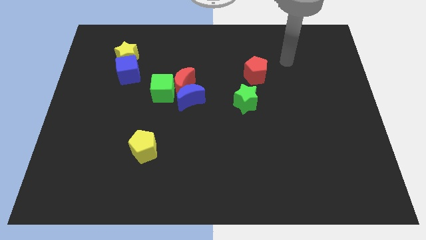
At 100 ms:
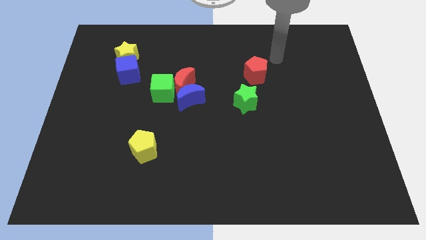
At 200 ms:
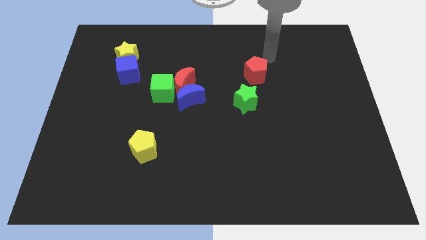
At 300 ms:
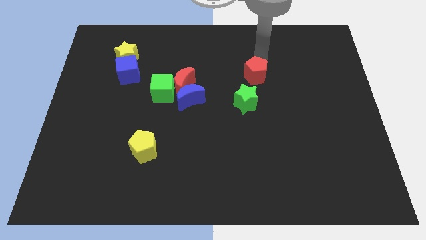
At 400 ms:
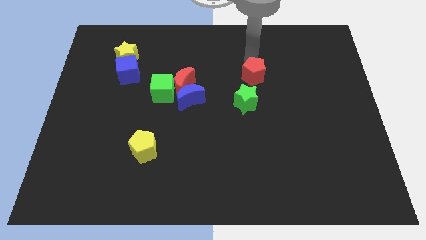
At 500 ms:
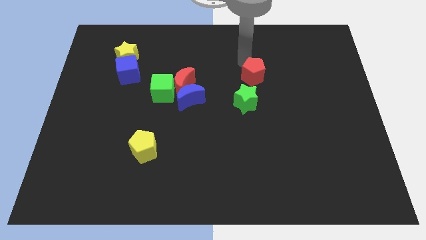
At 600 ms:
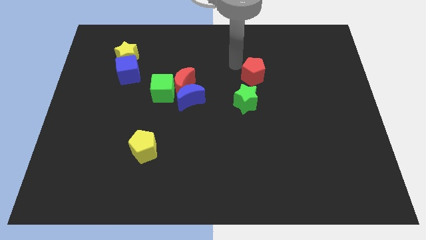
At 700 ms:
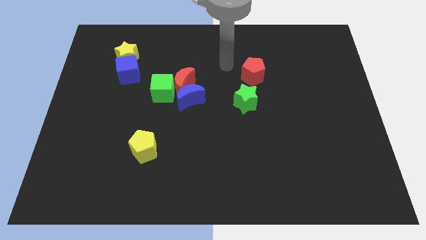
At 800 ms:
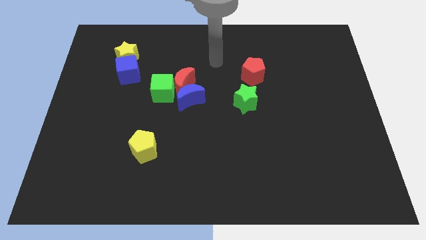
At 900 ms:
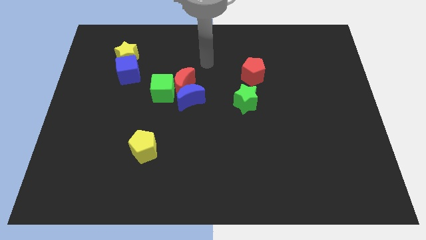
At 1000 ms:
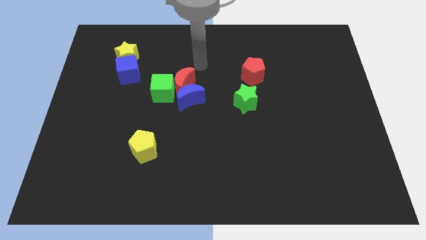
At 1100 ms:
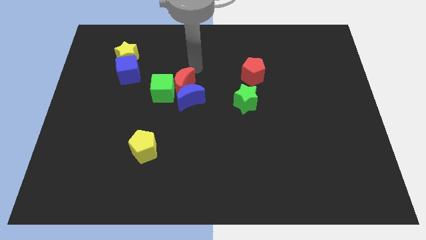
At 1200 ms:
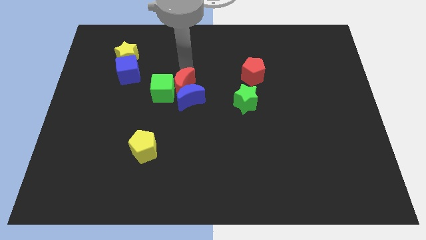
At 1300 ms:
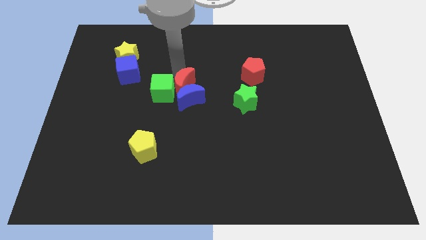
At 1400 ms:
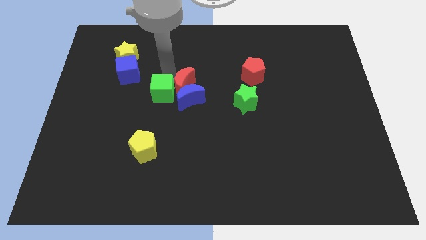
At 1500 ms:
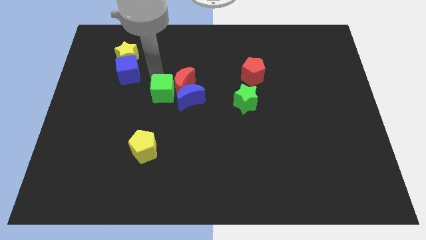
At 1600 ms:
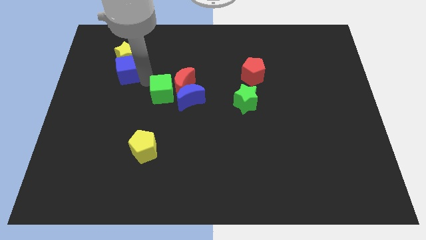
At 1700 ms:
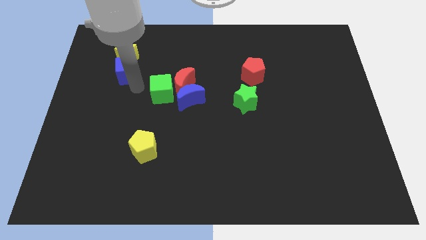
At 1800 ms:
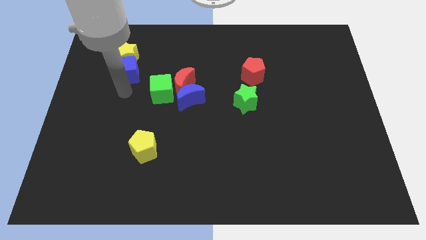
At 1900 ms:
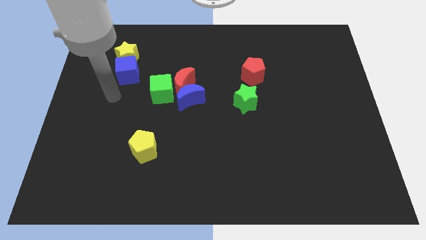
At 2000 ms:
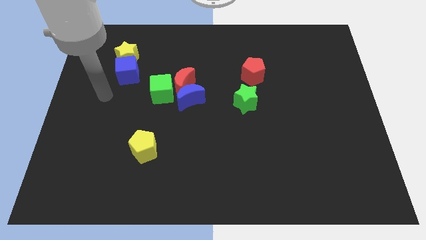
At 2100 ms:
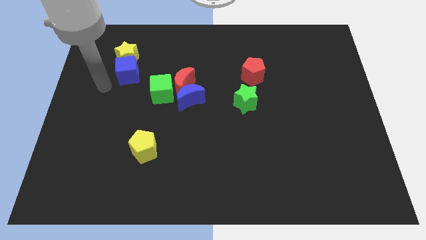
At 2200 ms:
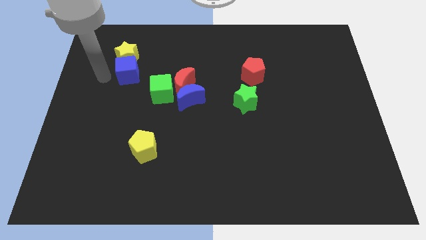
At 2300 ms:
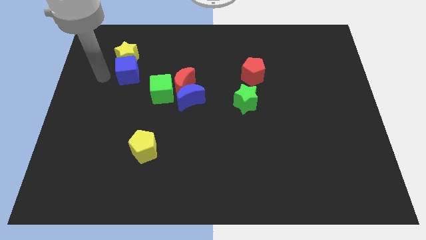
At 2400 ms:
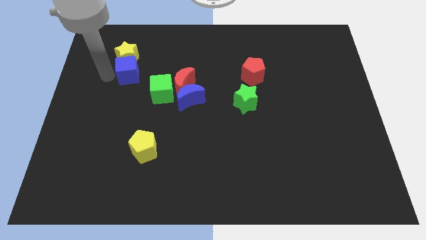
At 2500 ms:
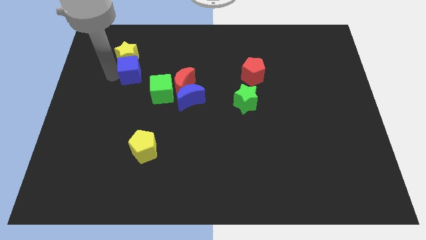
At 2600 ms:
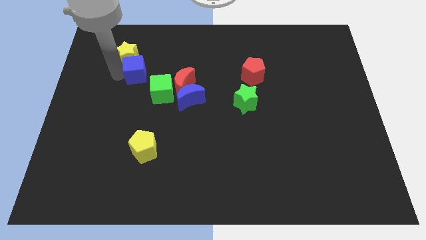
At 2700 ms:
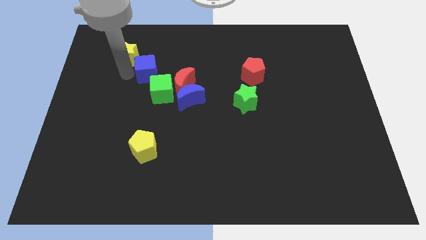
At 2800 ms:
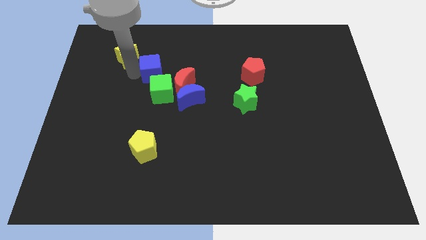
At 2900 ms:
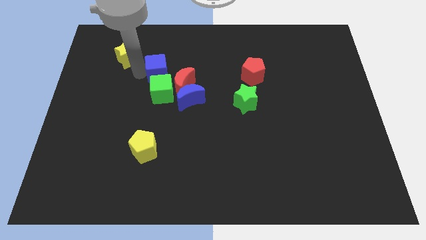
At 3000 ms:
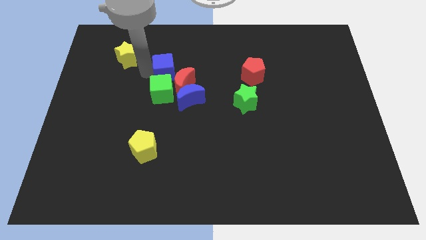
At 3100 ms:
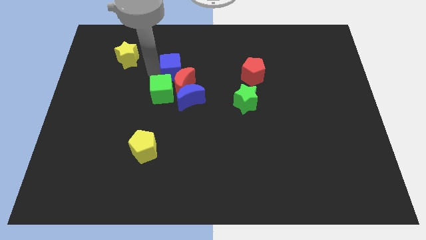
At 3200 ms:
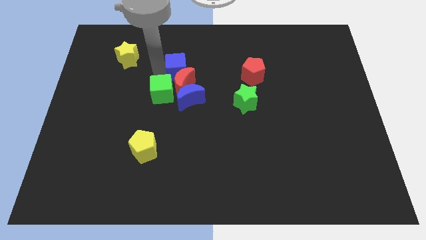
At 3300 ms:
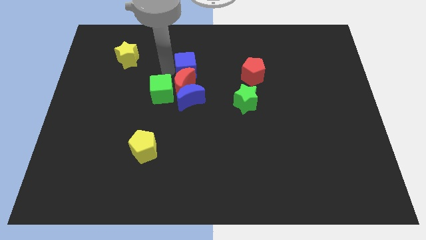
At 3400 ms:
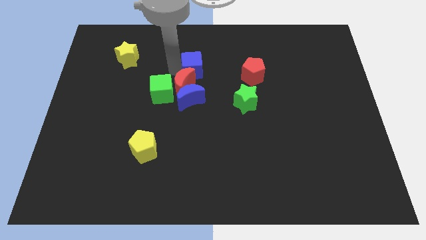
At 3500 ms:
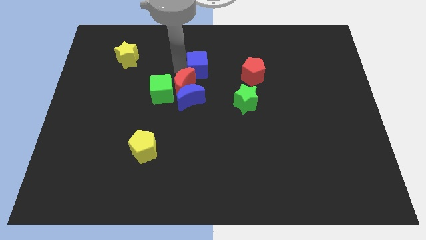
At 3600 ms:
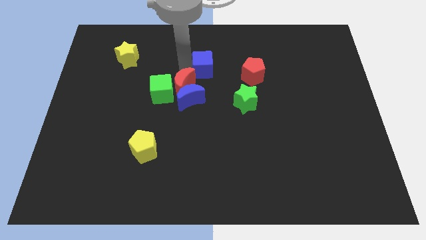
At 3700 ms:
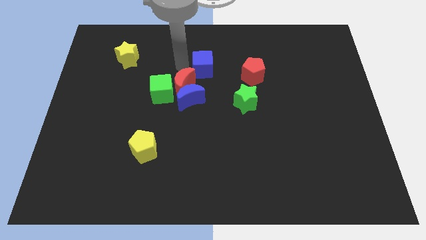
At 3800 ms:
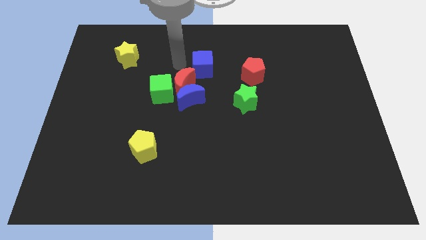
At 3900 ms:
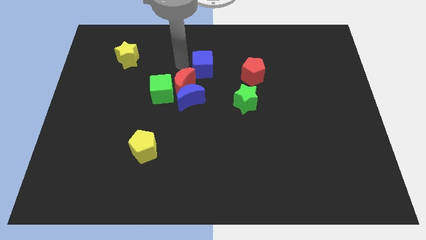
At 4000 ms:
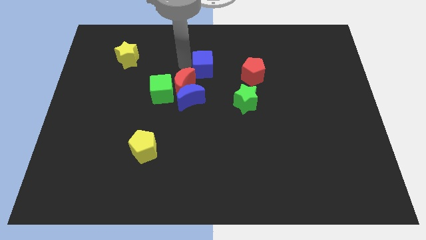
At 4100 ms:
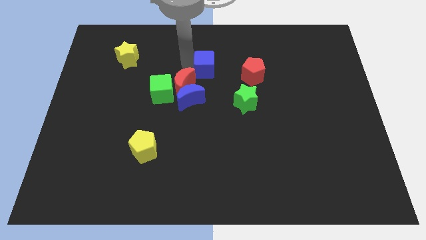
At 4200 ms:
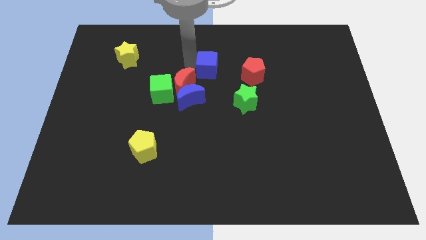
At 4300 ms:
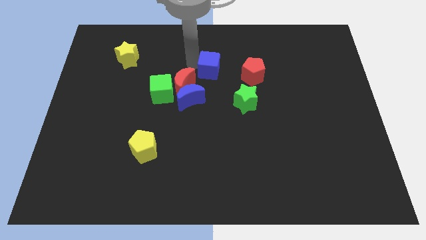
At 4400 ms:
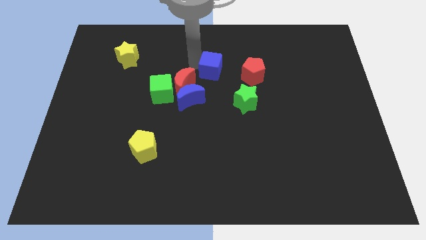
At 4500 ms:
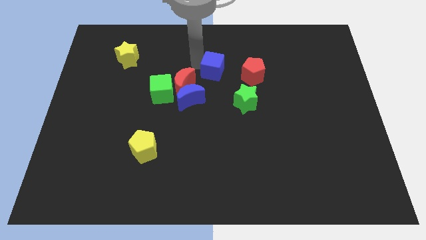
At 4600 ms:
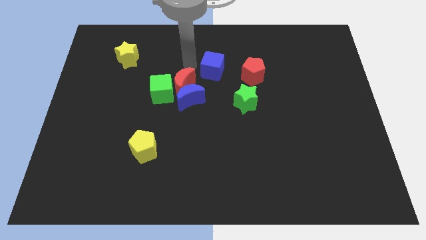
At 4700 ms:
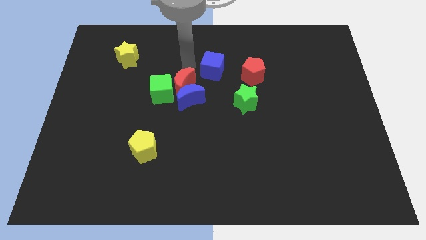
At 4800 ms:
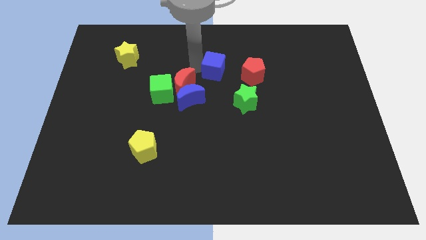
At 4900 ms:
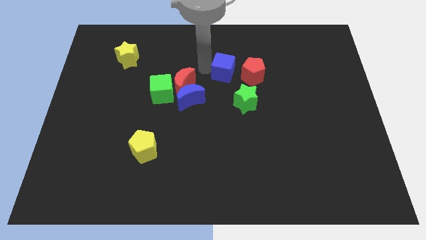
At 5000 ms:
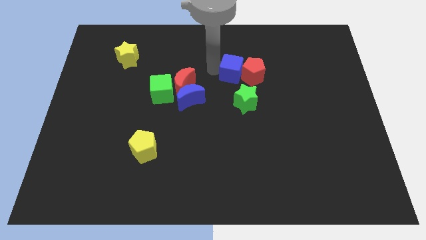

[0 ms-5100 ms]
slide the blue cube towards the red pentagon

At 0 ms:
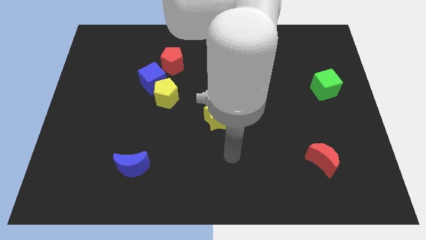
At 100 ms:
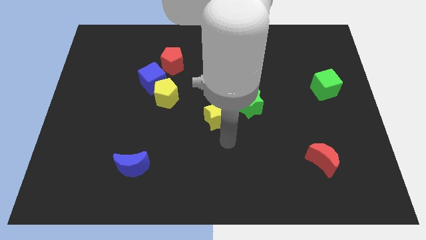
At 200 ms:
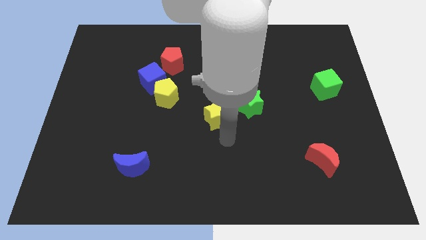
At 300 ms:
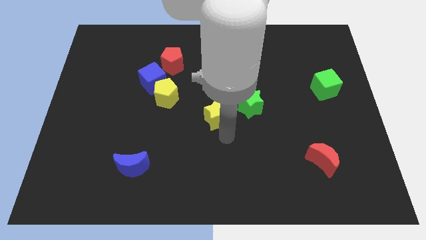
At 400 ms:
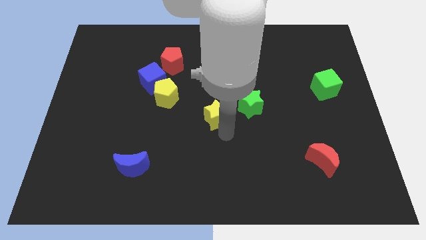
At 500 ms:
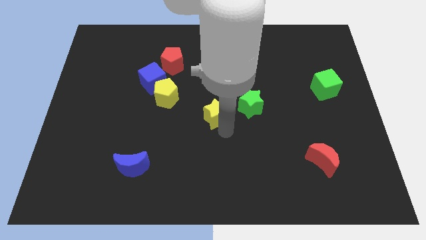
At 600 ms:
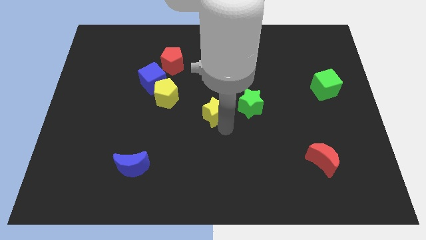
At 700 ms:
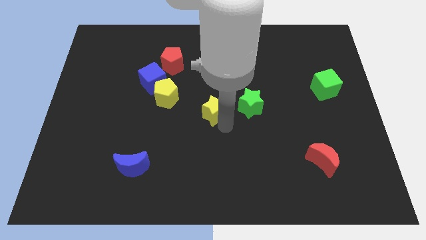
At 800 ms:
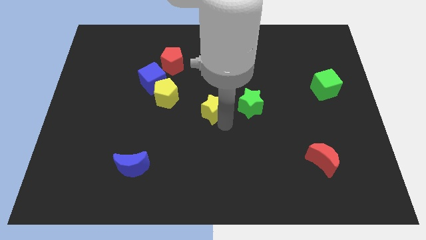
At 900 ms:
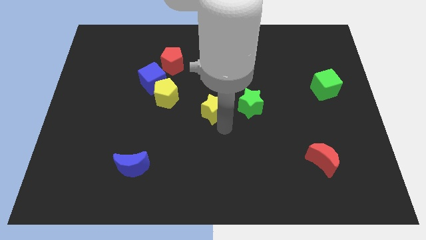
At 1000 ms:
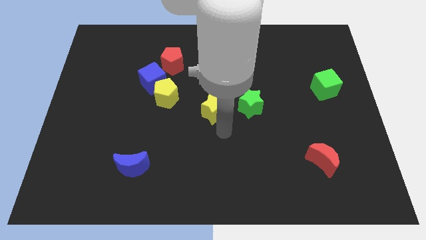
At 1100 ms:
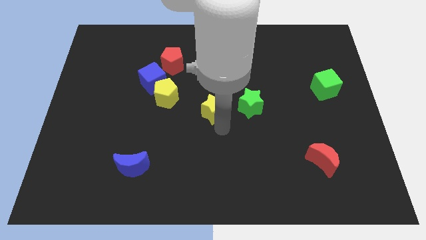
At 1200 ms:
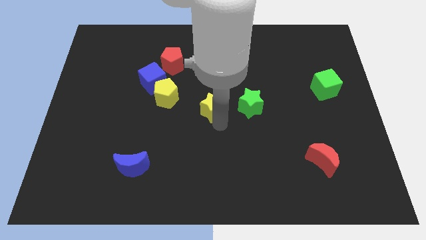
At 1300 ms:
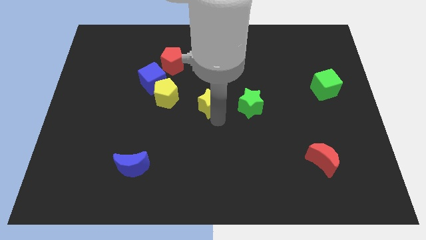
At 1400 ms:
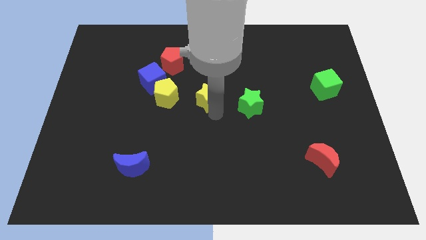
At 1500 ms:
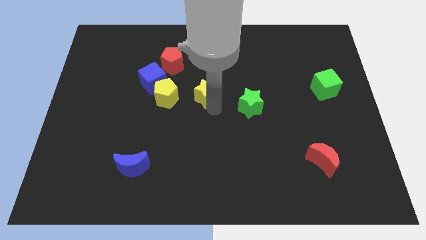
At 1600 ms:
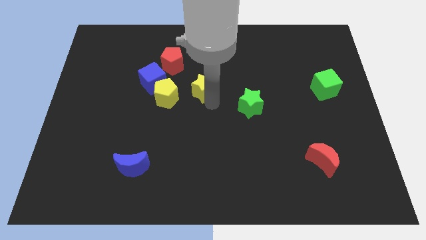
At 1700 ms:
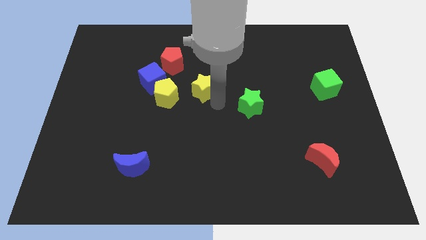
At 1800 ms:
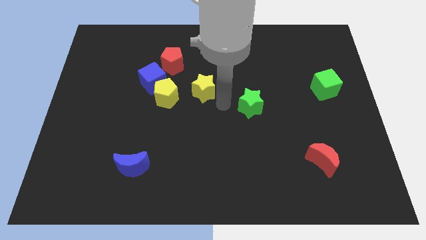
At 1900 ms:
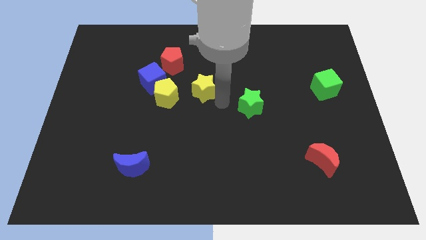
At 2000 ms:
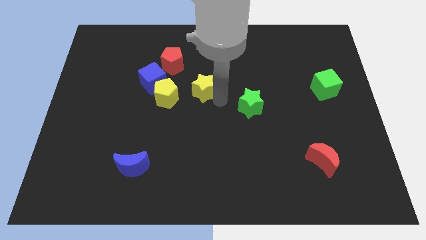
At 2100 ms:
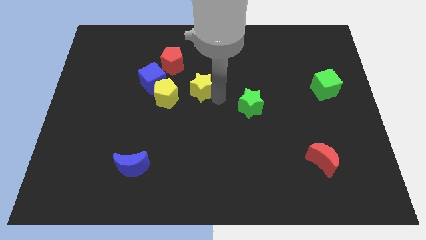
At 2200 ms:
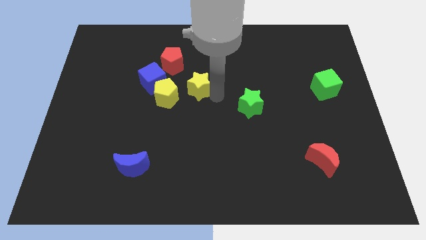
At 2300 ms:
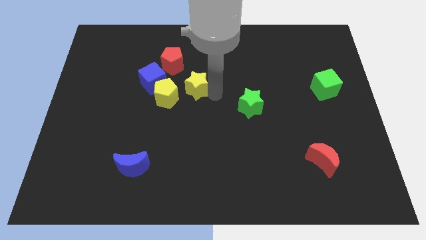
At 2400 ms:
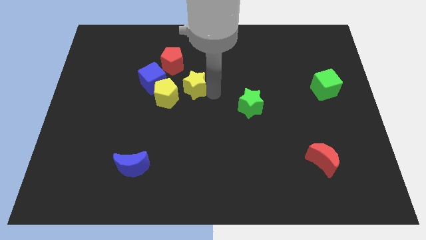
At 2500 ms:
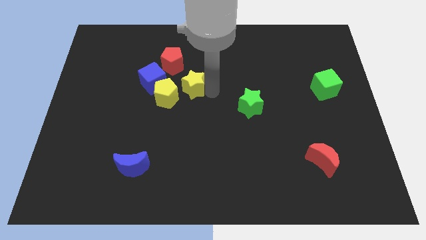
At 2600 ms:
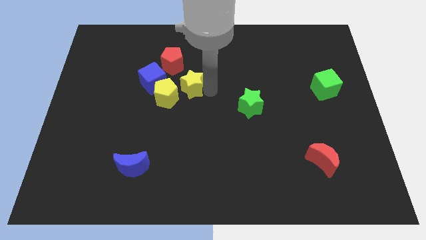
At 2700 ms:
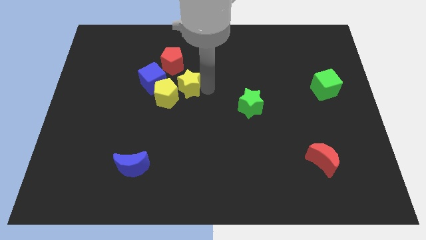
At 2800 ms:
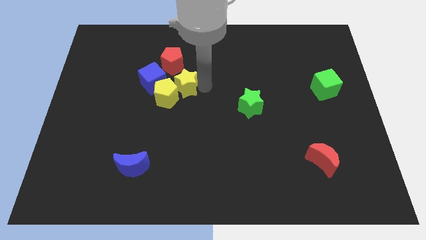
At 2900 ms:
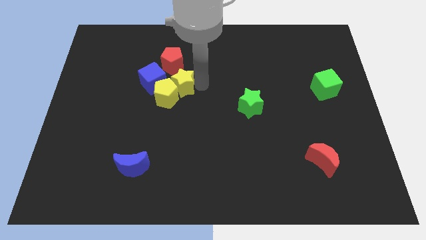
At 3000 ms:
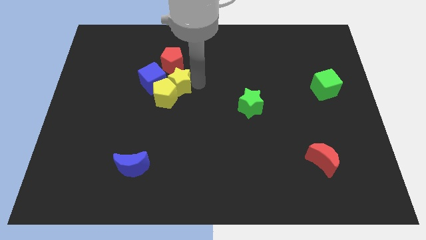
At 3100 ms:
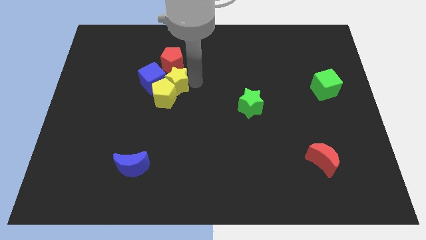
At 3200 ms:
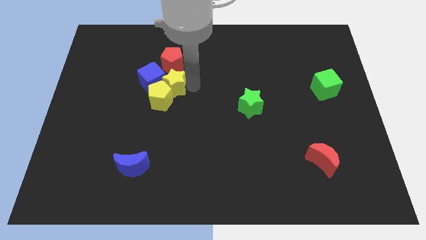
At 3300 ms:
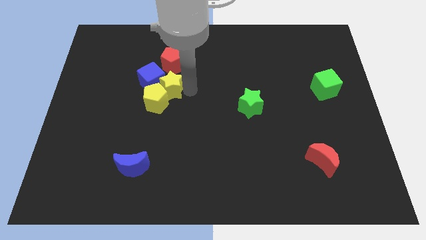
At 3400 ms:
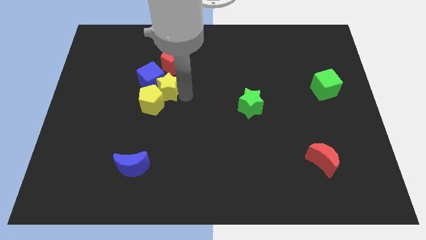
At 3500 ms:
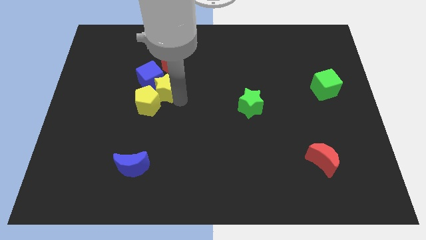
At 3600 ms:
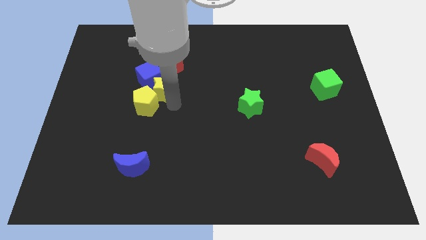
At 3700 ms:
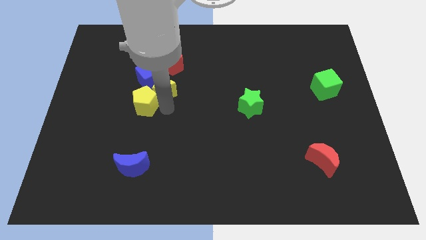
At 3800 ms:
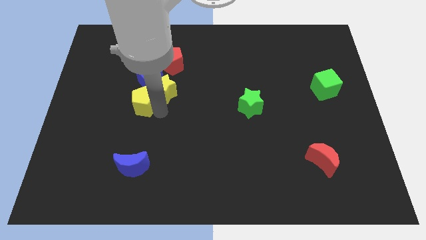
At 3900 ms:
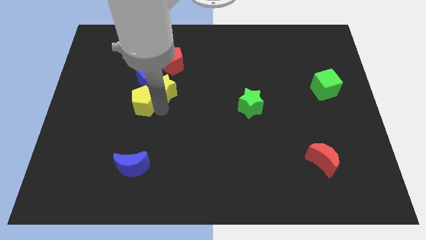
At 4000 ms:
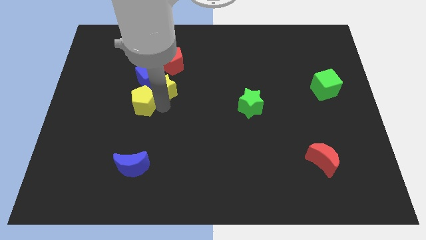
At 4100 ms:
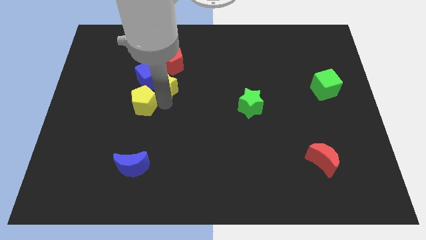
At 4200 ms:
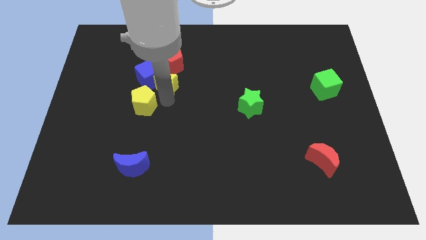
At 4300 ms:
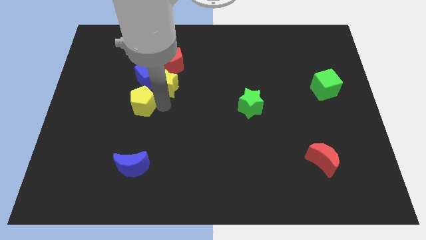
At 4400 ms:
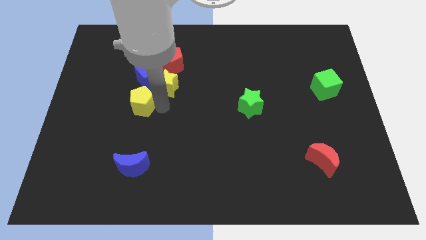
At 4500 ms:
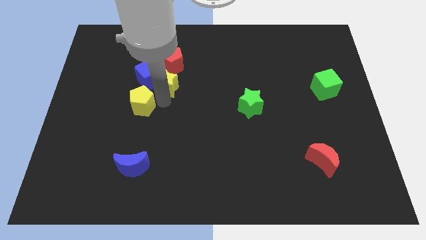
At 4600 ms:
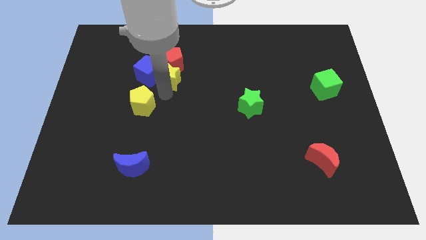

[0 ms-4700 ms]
put the yellow star towards the red pentagon
